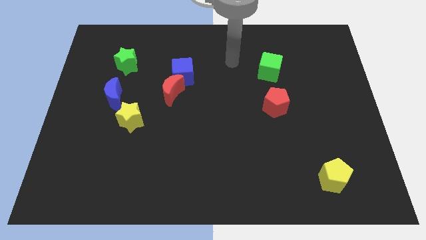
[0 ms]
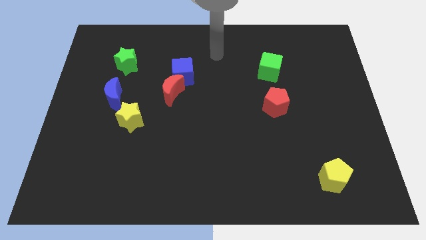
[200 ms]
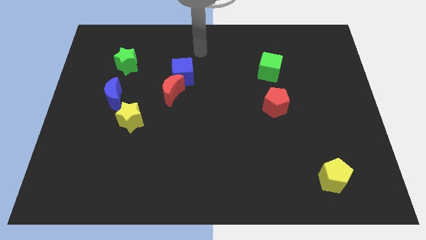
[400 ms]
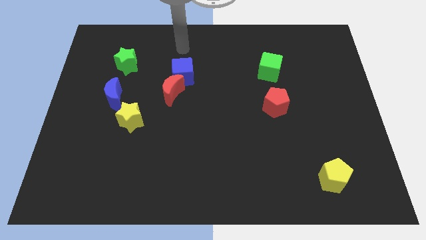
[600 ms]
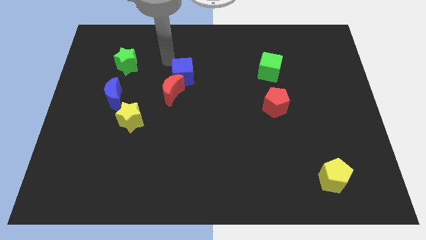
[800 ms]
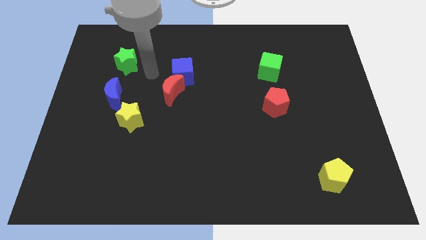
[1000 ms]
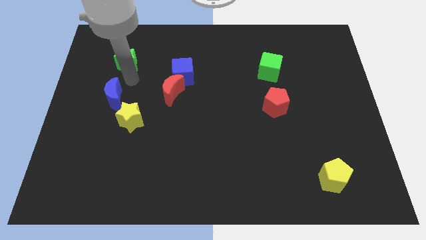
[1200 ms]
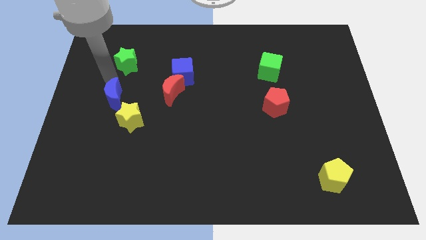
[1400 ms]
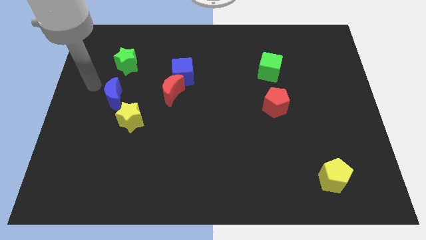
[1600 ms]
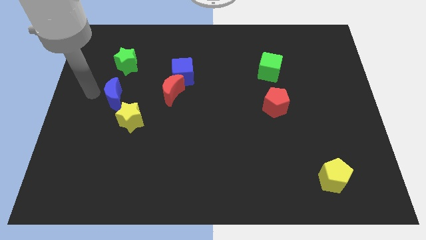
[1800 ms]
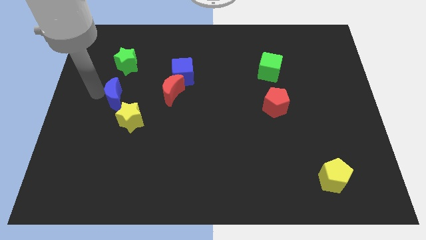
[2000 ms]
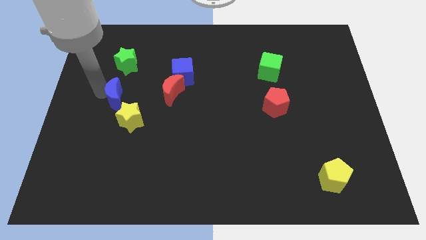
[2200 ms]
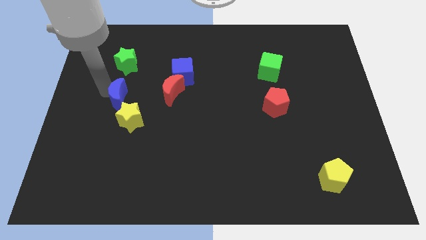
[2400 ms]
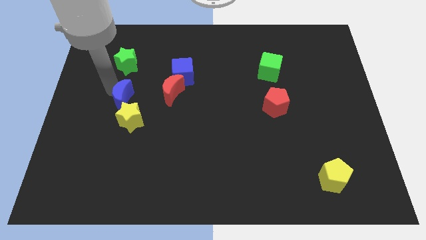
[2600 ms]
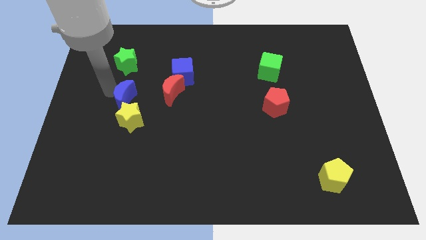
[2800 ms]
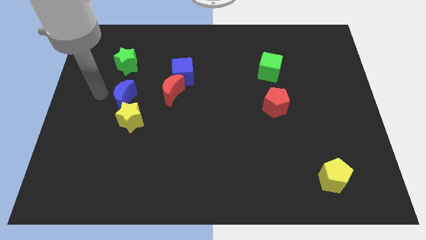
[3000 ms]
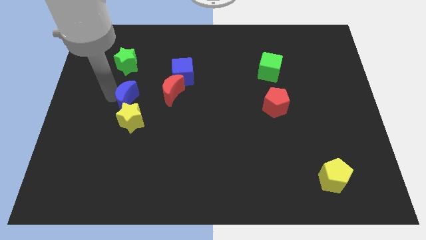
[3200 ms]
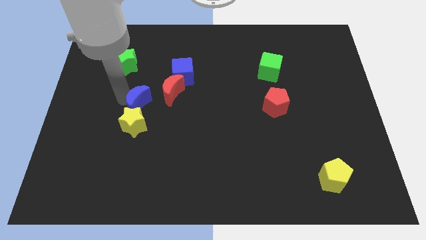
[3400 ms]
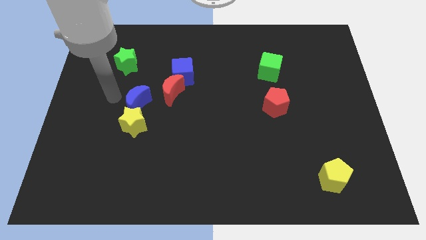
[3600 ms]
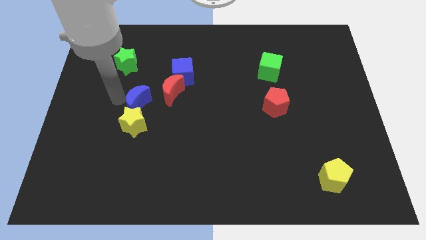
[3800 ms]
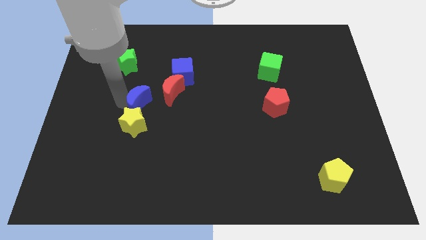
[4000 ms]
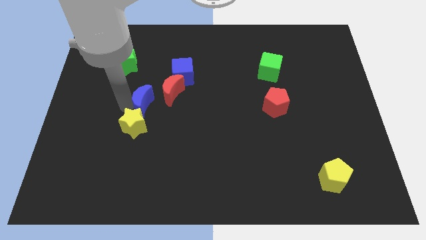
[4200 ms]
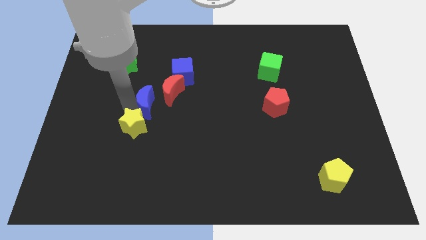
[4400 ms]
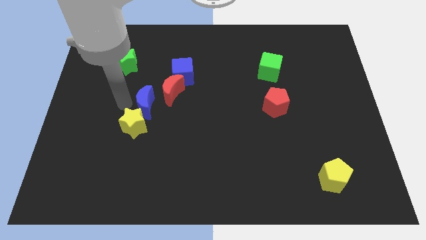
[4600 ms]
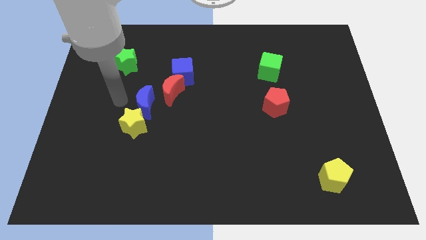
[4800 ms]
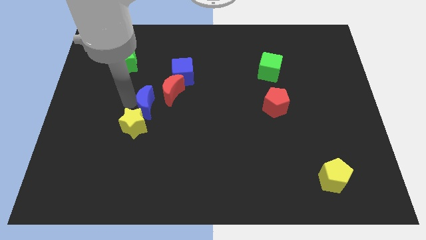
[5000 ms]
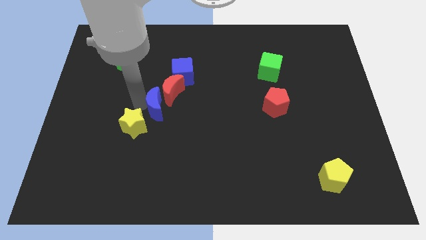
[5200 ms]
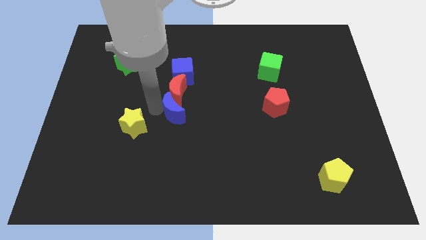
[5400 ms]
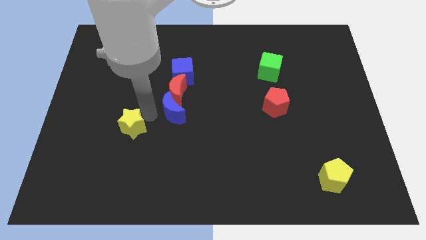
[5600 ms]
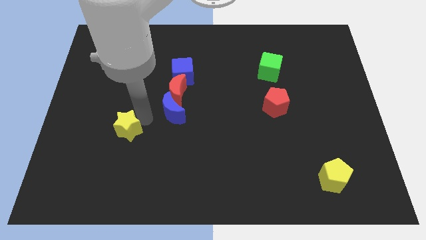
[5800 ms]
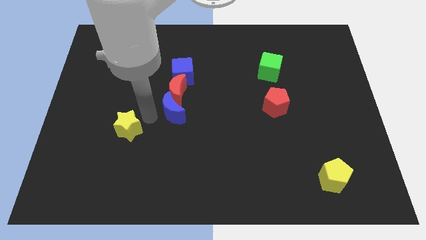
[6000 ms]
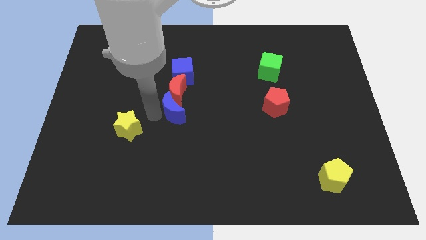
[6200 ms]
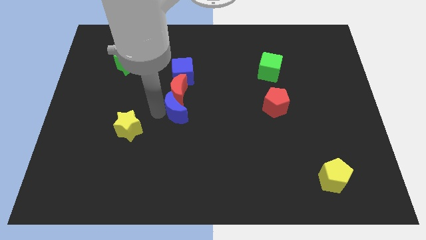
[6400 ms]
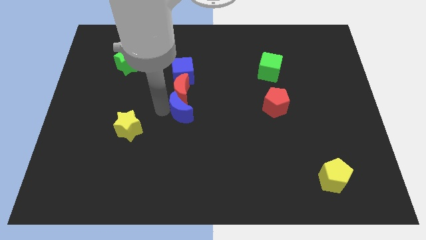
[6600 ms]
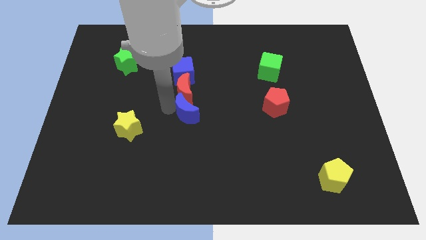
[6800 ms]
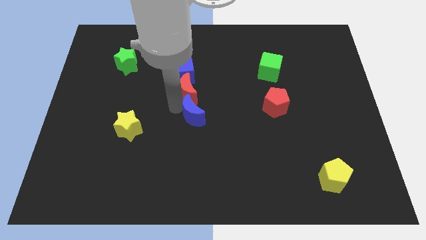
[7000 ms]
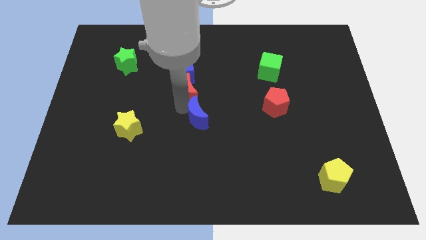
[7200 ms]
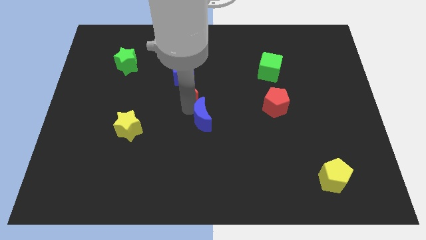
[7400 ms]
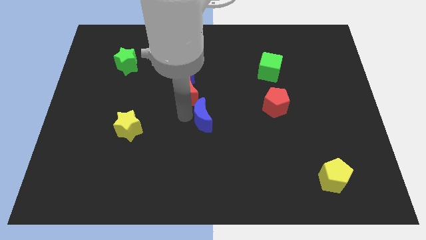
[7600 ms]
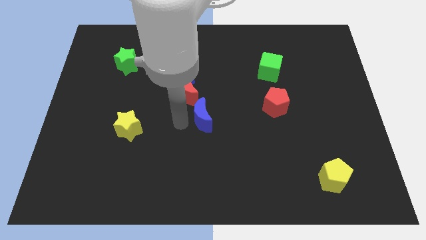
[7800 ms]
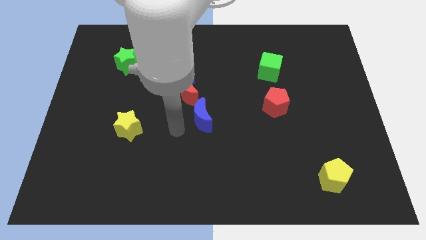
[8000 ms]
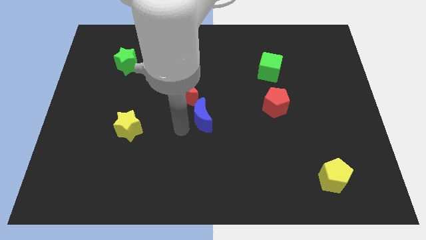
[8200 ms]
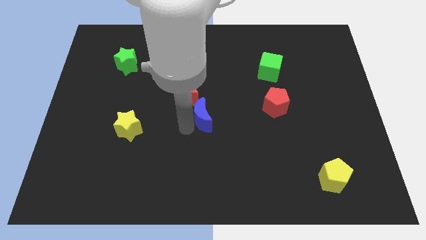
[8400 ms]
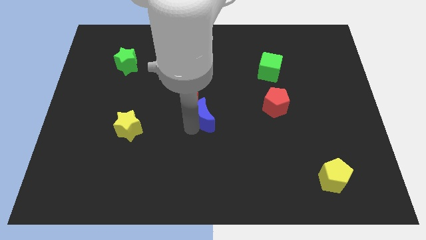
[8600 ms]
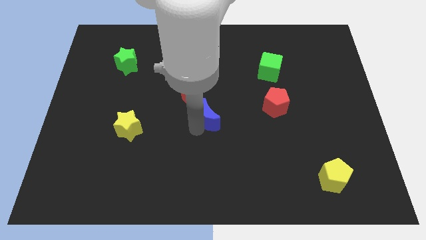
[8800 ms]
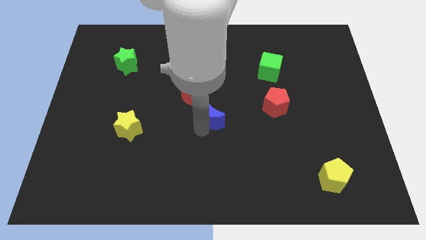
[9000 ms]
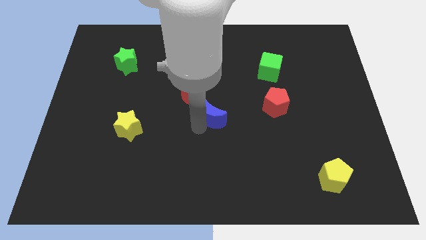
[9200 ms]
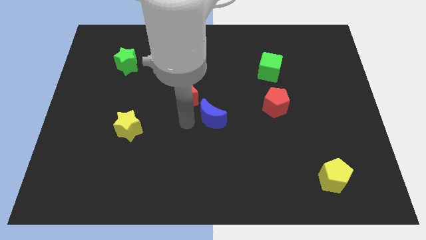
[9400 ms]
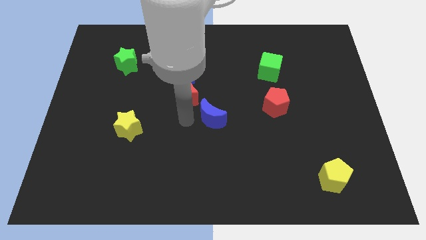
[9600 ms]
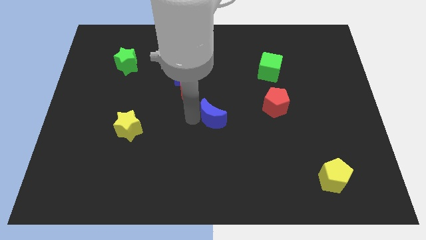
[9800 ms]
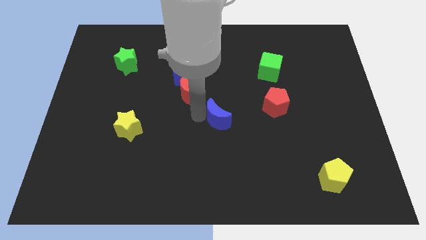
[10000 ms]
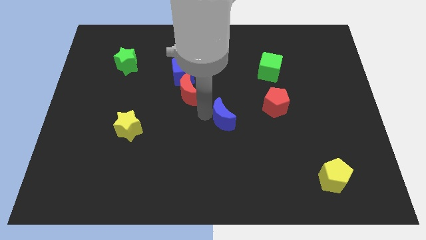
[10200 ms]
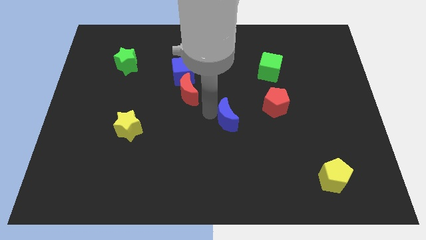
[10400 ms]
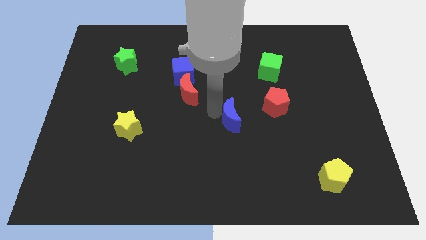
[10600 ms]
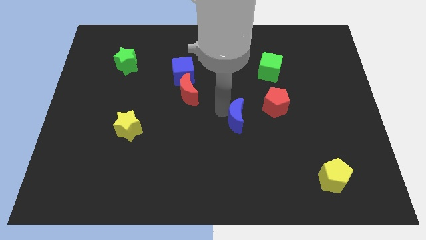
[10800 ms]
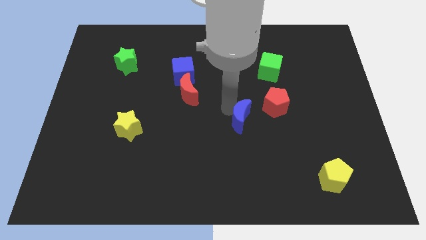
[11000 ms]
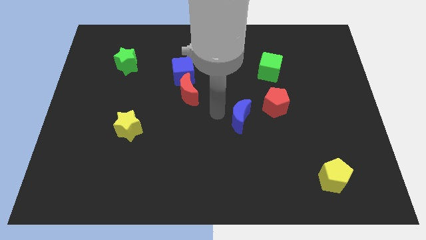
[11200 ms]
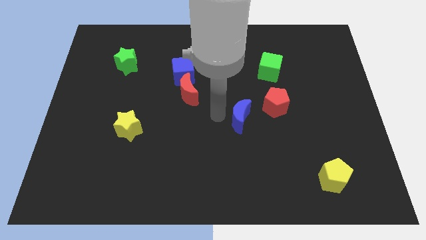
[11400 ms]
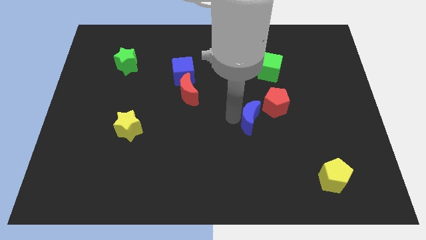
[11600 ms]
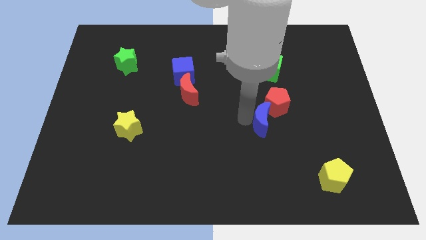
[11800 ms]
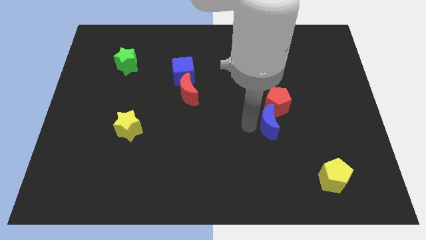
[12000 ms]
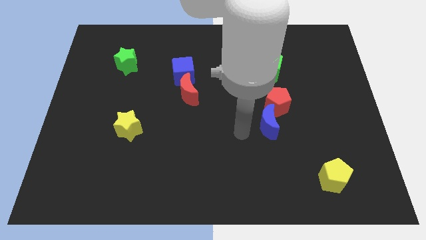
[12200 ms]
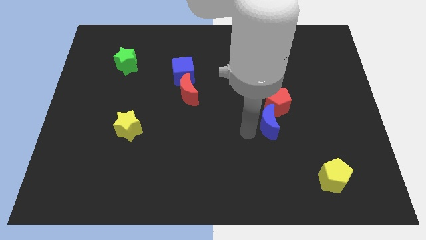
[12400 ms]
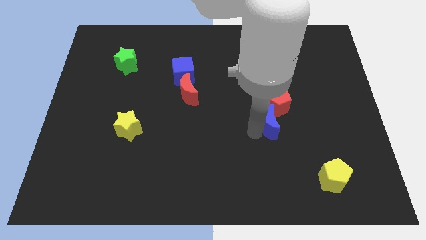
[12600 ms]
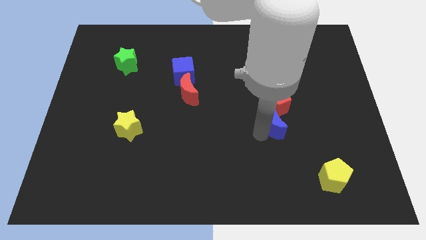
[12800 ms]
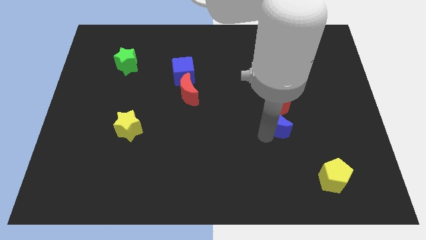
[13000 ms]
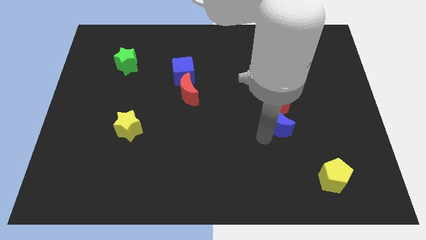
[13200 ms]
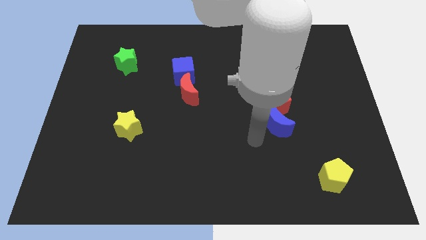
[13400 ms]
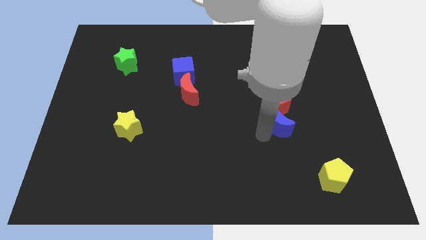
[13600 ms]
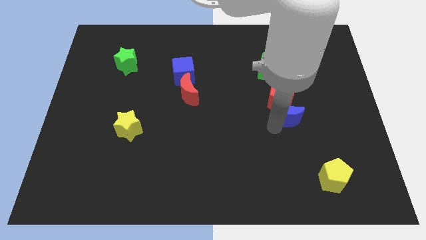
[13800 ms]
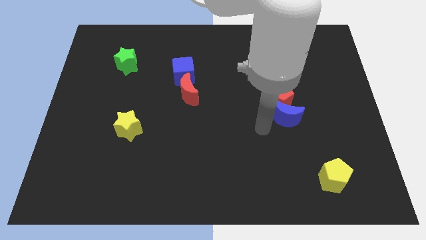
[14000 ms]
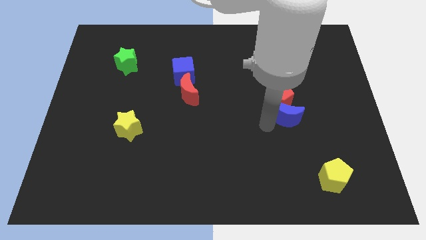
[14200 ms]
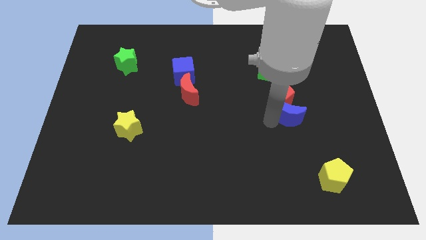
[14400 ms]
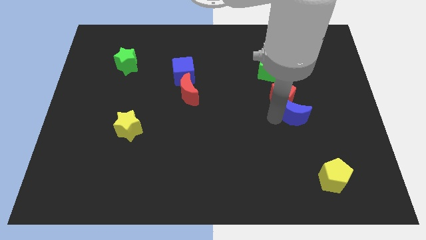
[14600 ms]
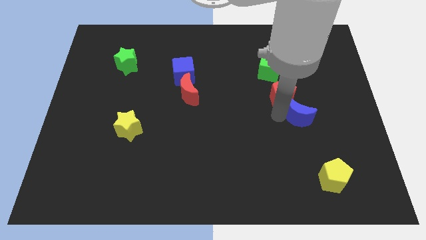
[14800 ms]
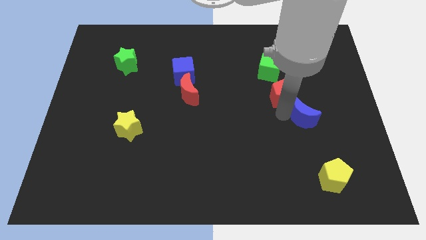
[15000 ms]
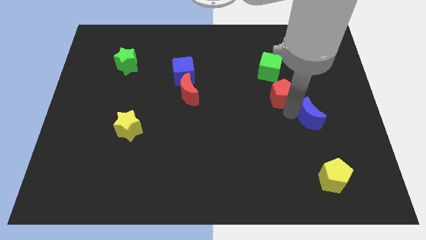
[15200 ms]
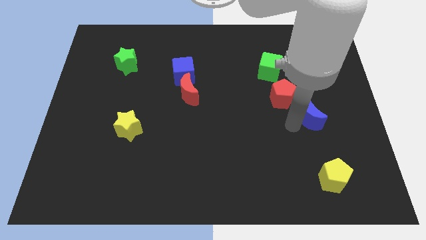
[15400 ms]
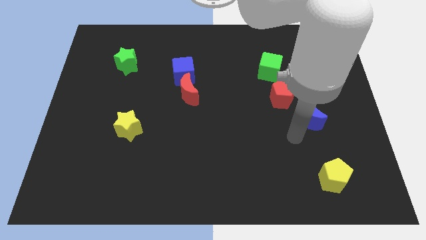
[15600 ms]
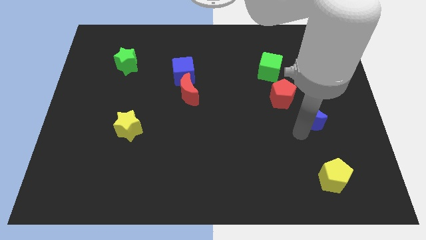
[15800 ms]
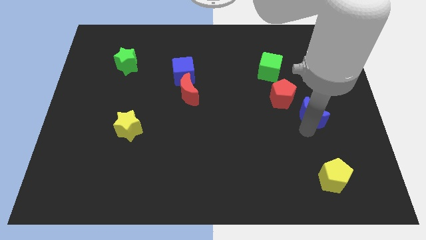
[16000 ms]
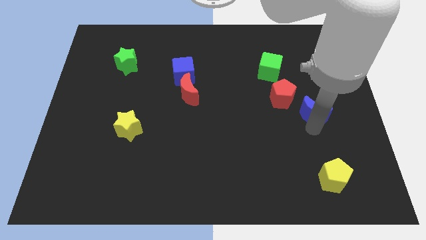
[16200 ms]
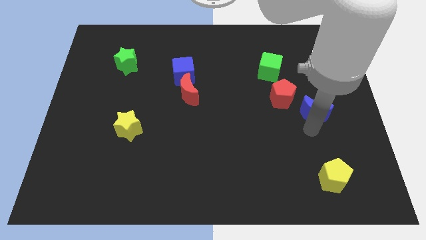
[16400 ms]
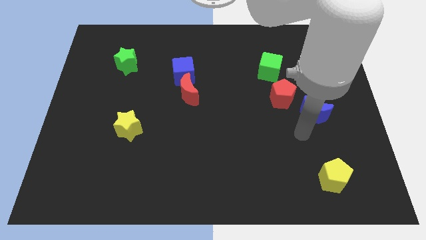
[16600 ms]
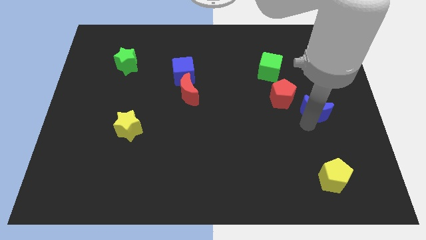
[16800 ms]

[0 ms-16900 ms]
move the blue moon just right of the red pentagon
